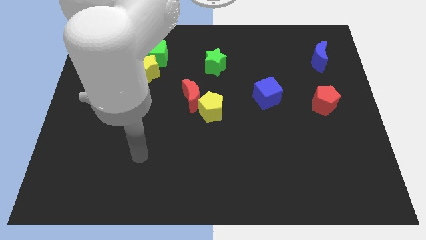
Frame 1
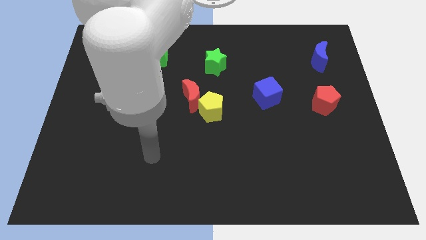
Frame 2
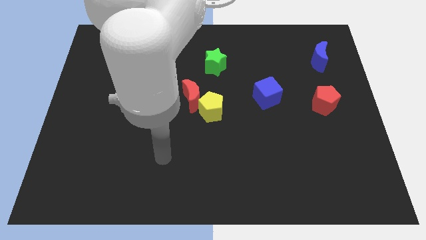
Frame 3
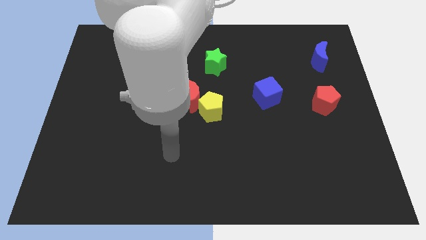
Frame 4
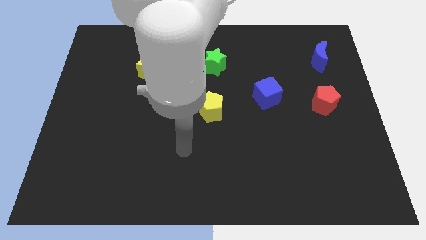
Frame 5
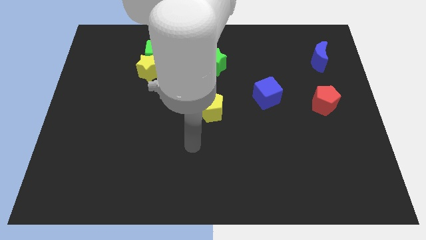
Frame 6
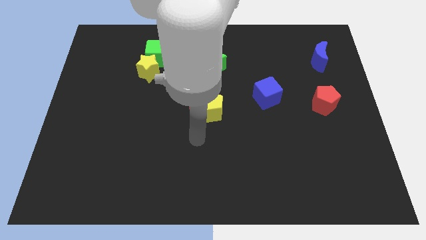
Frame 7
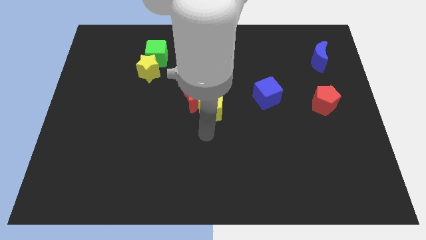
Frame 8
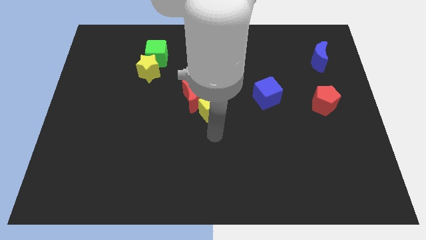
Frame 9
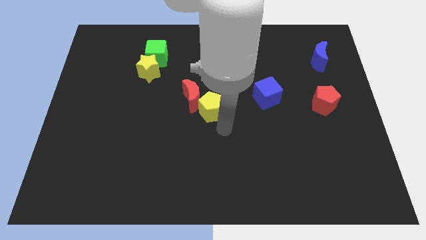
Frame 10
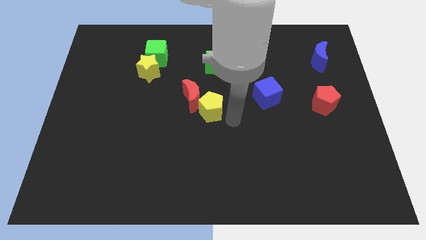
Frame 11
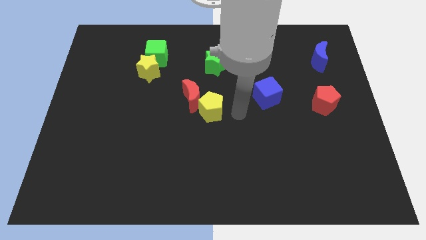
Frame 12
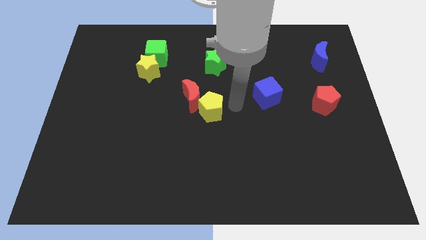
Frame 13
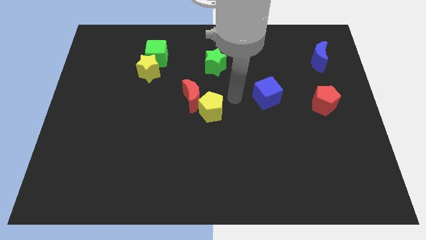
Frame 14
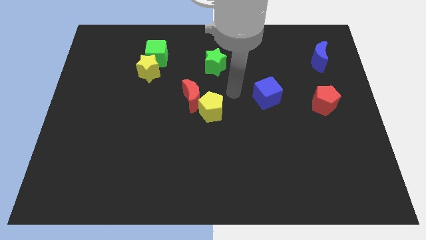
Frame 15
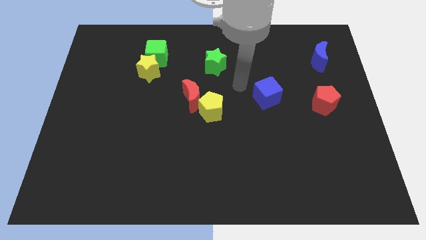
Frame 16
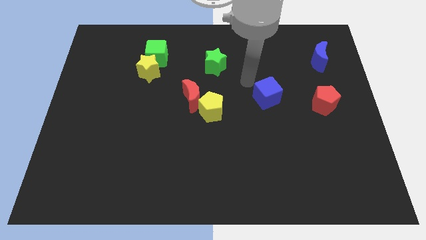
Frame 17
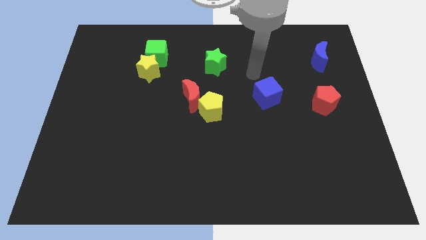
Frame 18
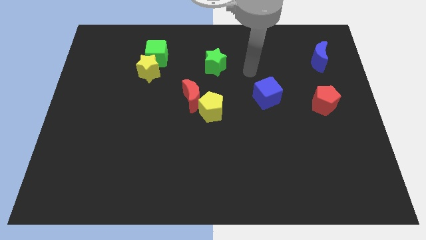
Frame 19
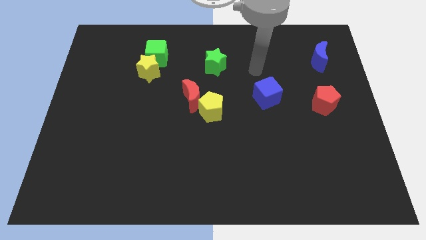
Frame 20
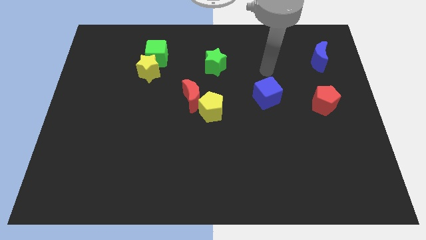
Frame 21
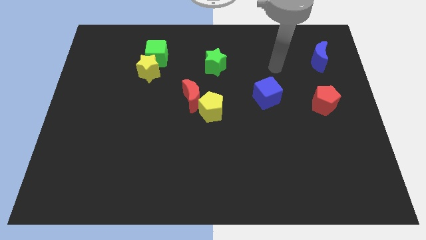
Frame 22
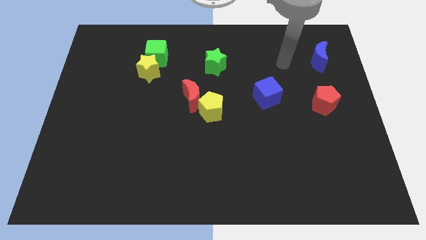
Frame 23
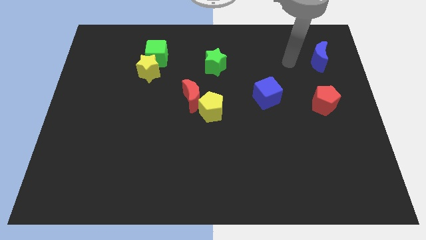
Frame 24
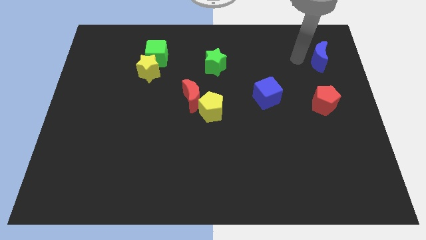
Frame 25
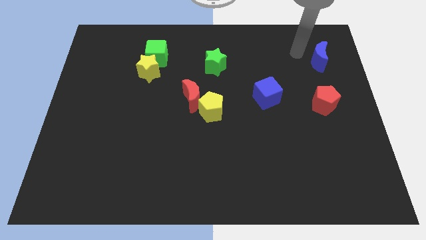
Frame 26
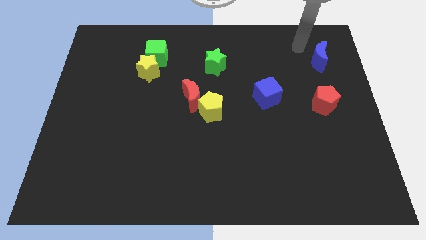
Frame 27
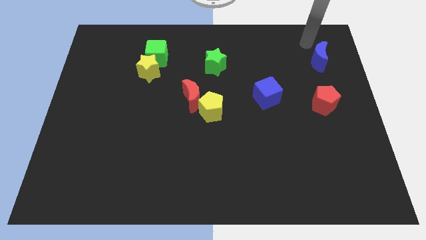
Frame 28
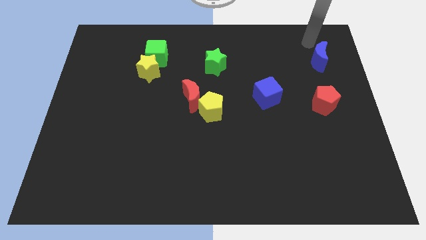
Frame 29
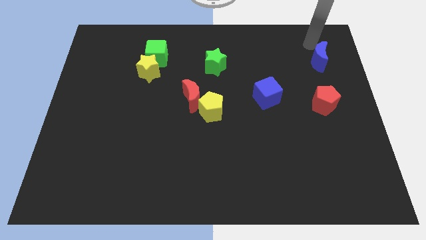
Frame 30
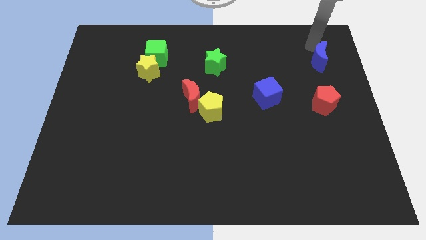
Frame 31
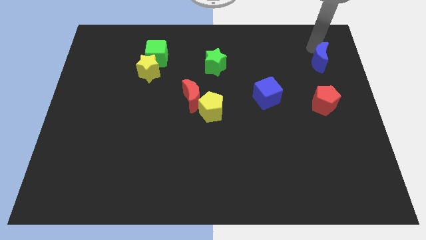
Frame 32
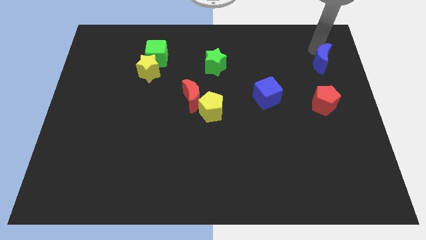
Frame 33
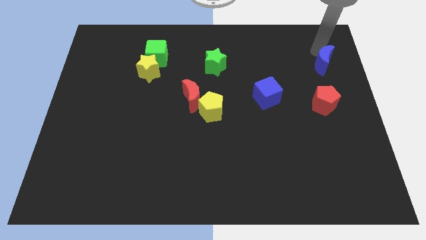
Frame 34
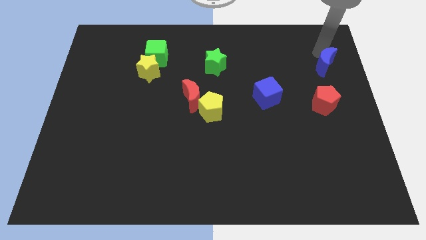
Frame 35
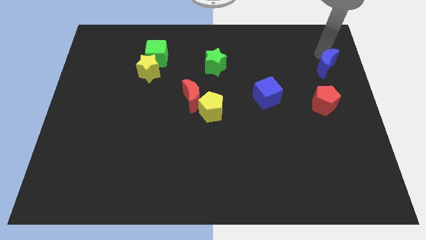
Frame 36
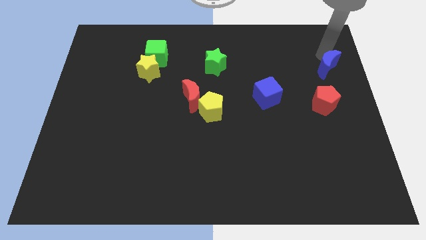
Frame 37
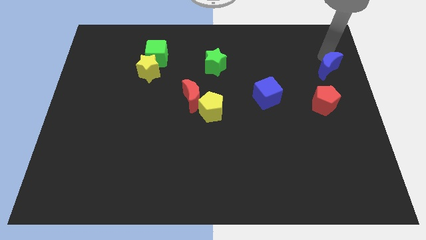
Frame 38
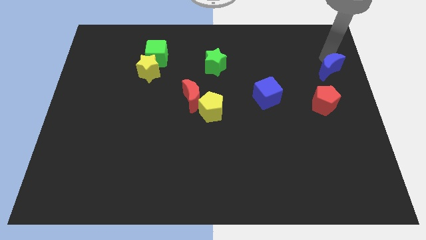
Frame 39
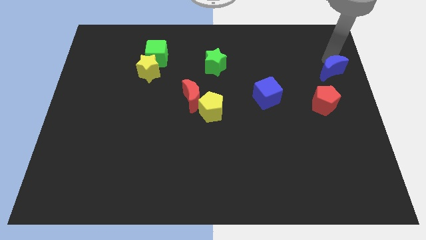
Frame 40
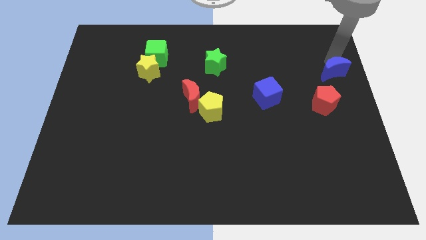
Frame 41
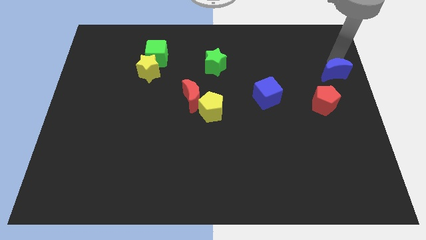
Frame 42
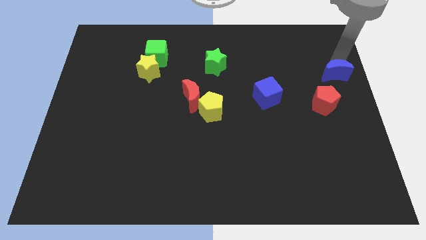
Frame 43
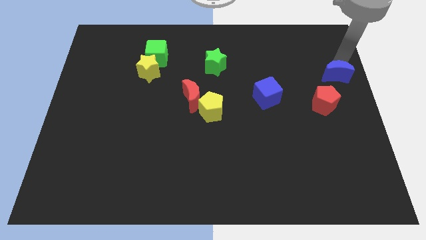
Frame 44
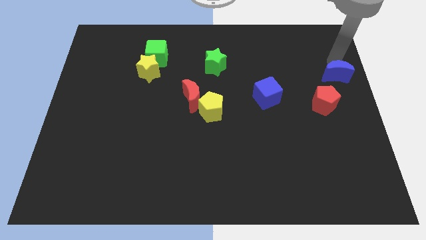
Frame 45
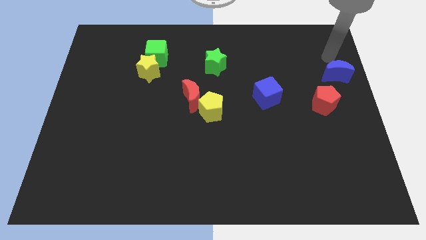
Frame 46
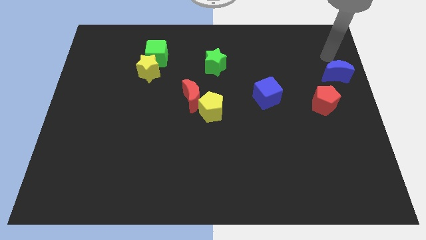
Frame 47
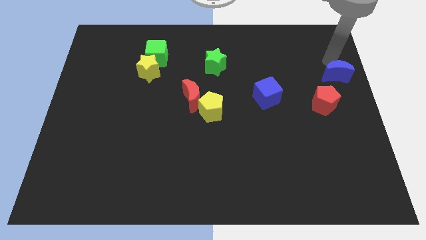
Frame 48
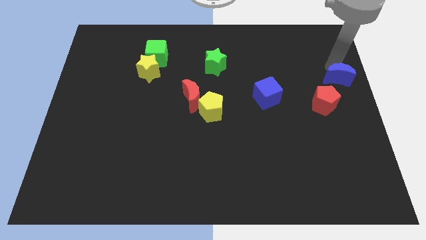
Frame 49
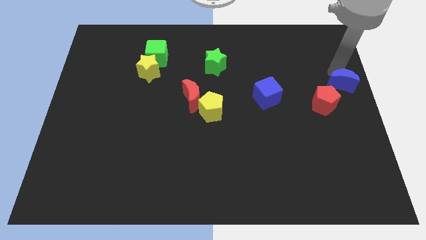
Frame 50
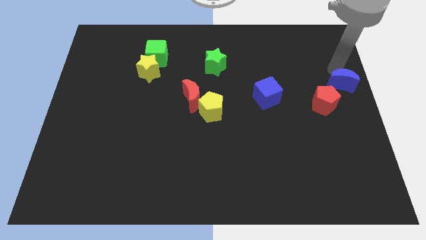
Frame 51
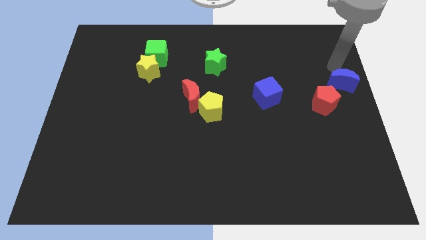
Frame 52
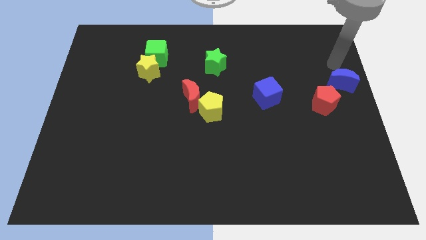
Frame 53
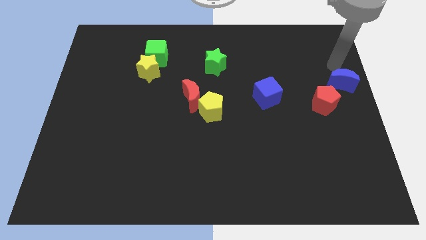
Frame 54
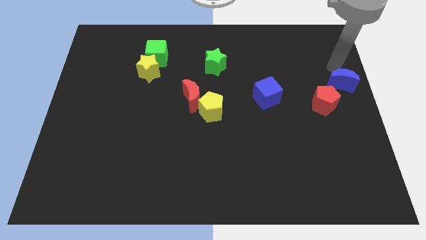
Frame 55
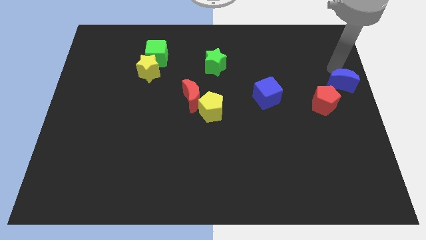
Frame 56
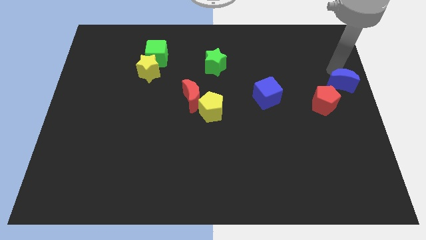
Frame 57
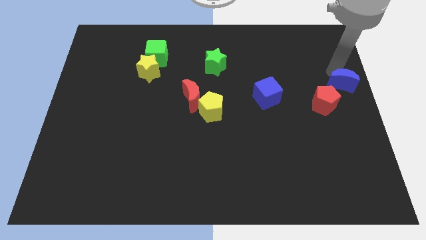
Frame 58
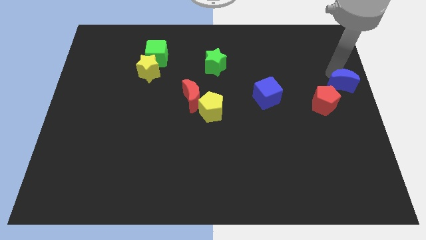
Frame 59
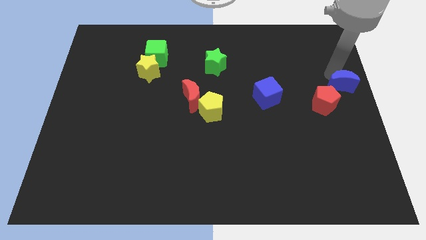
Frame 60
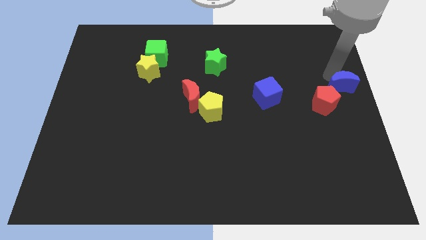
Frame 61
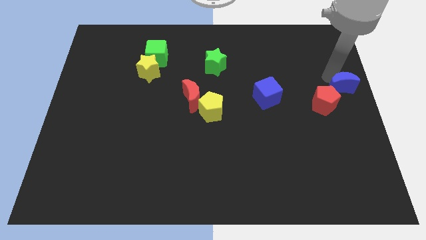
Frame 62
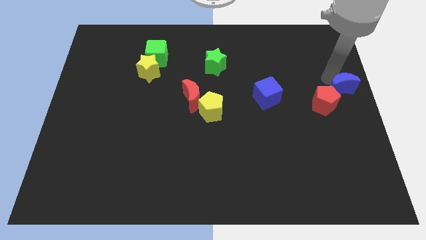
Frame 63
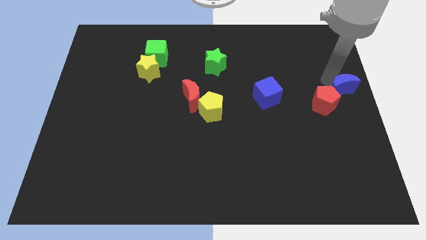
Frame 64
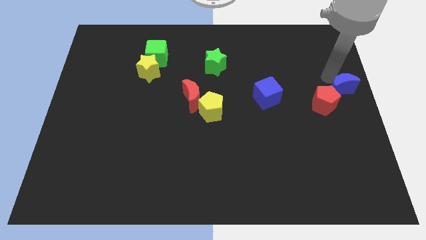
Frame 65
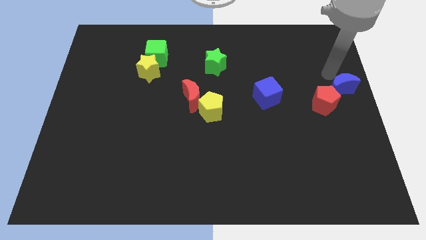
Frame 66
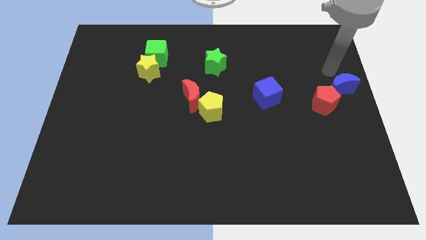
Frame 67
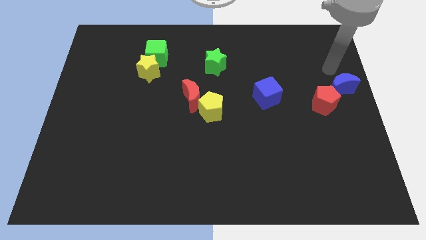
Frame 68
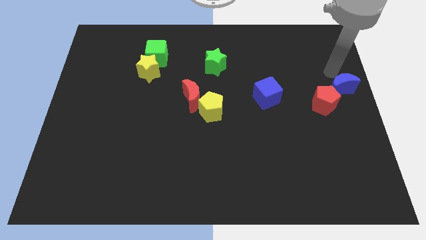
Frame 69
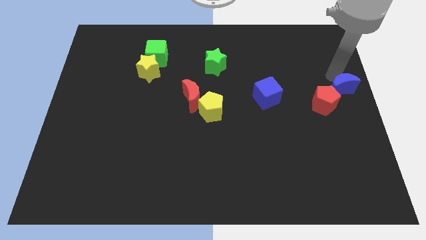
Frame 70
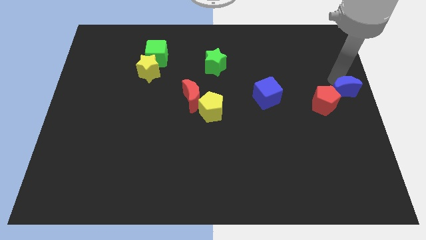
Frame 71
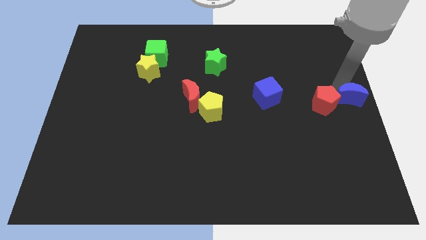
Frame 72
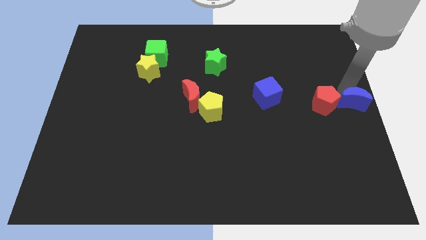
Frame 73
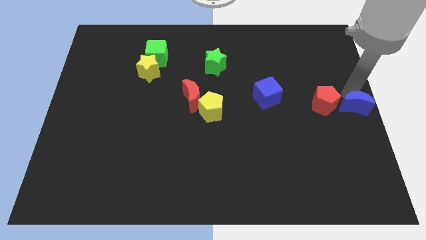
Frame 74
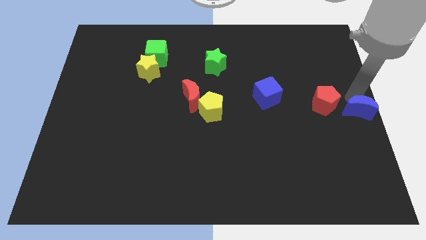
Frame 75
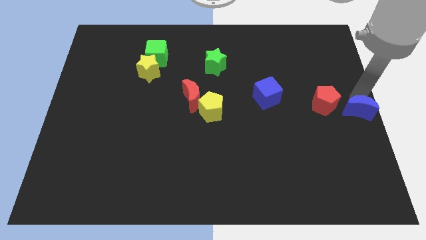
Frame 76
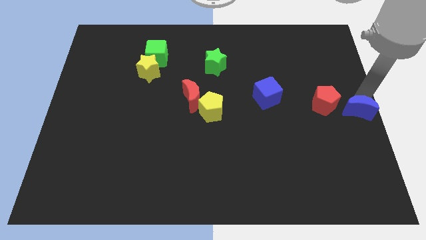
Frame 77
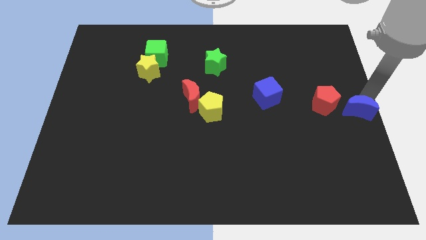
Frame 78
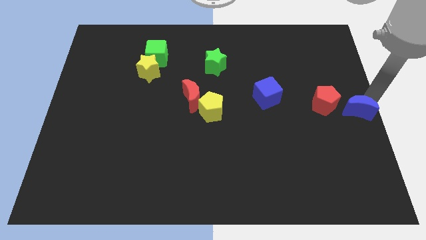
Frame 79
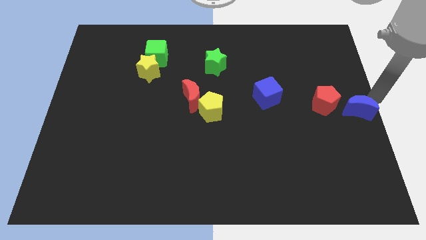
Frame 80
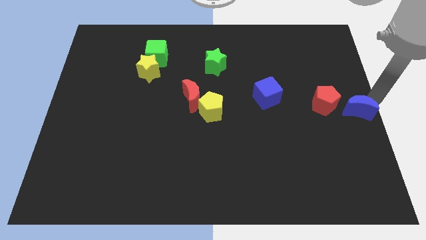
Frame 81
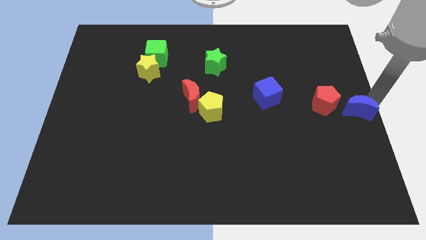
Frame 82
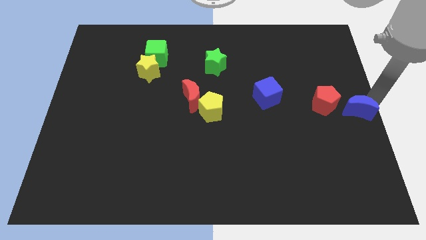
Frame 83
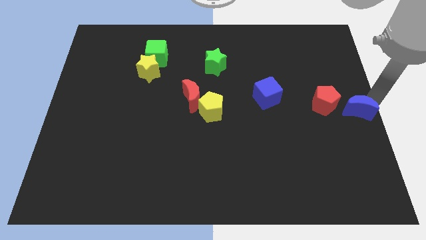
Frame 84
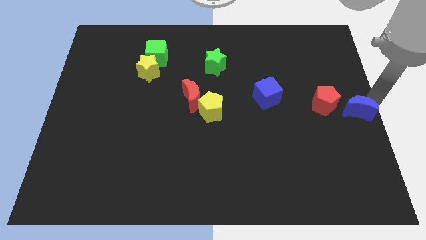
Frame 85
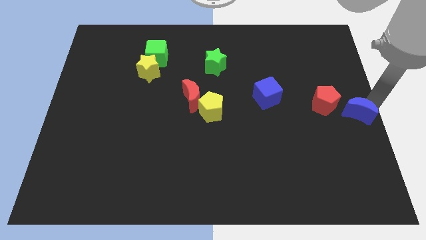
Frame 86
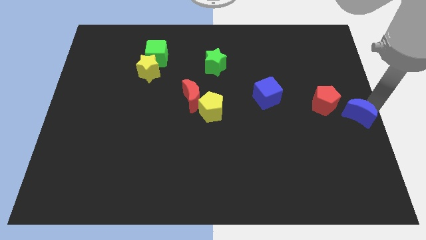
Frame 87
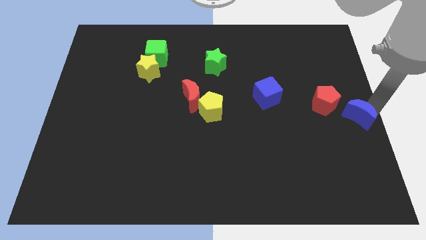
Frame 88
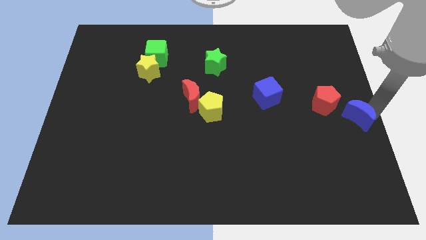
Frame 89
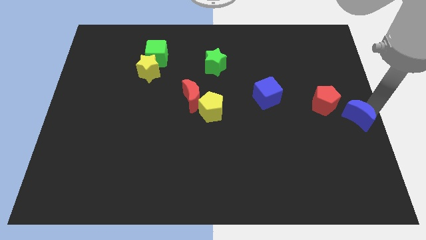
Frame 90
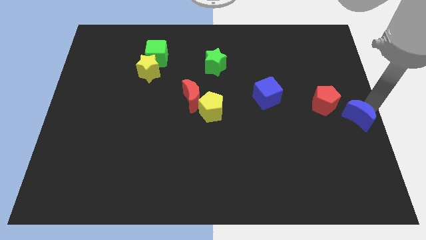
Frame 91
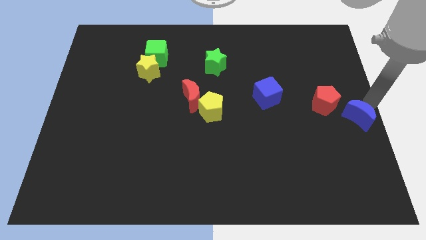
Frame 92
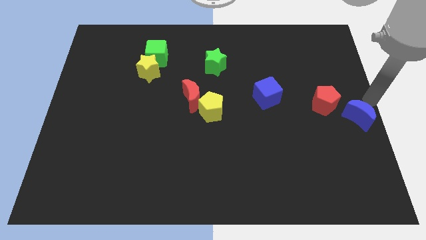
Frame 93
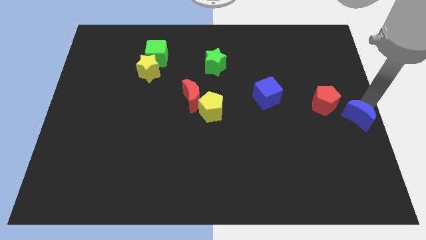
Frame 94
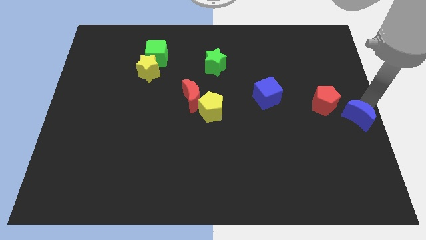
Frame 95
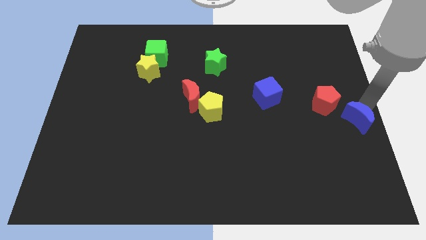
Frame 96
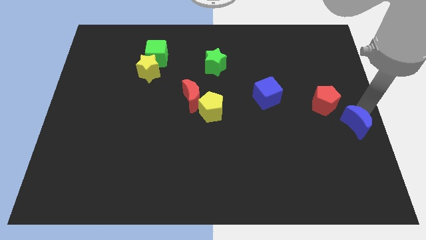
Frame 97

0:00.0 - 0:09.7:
push the blue moon downwards
